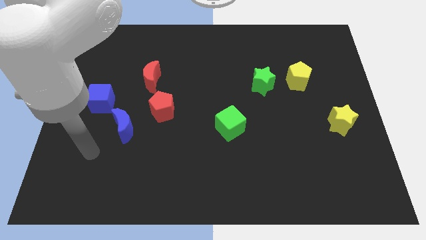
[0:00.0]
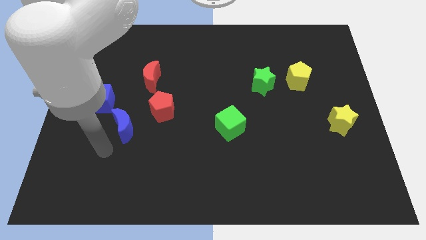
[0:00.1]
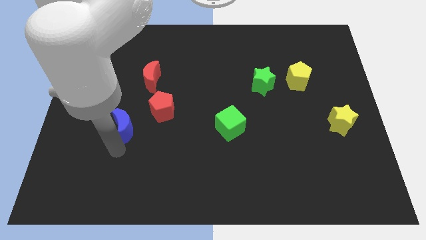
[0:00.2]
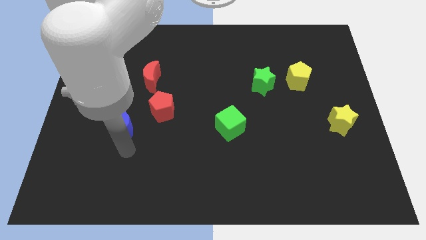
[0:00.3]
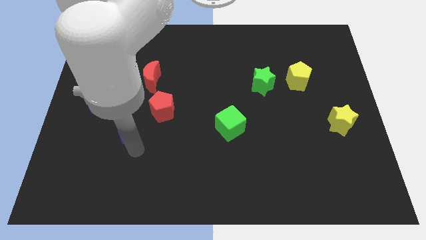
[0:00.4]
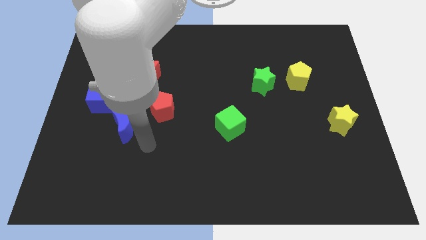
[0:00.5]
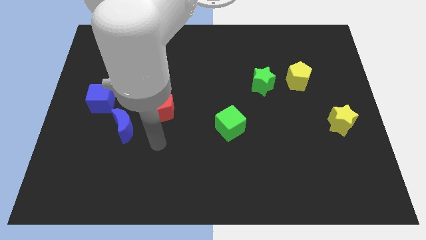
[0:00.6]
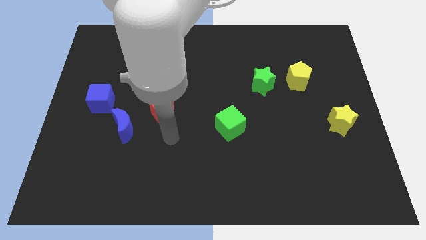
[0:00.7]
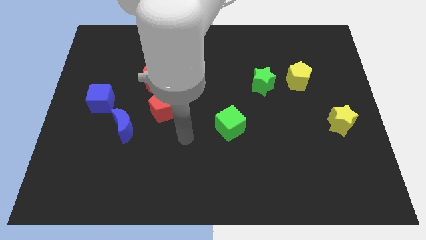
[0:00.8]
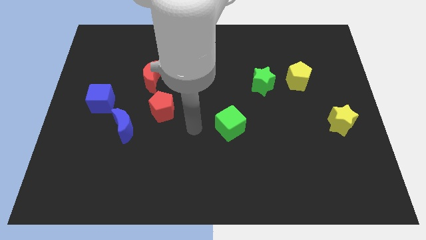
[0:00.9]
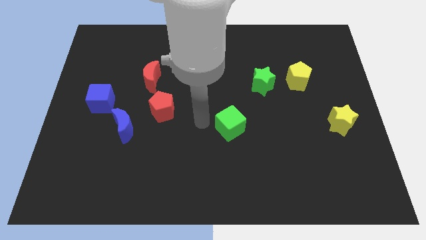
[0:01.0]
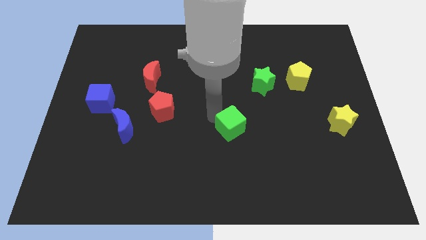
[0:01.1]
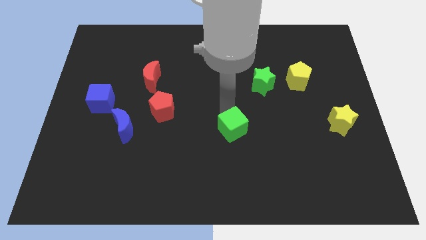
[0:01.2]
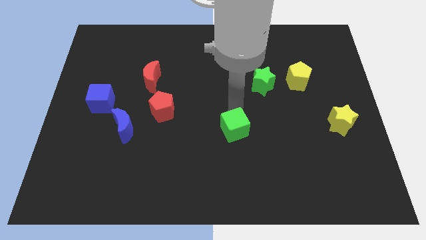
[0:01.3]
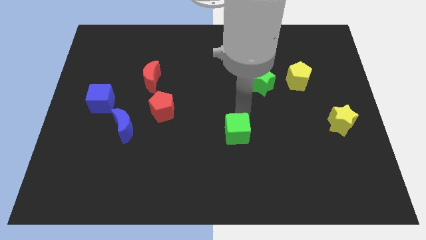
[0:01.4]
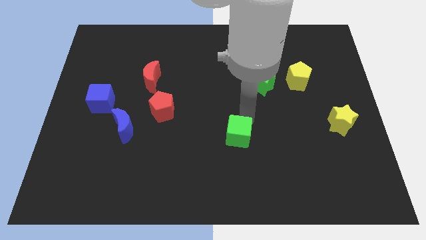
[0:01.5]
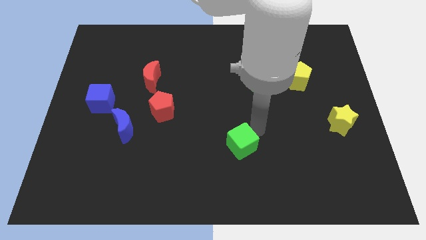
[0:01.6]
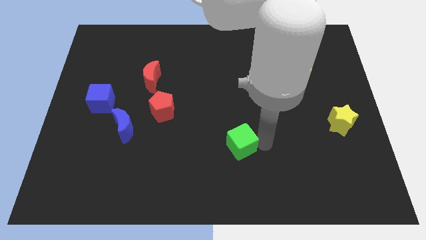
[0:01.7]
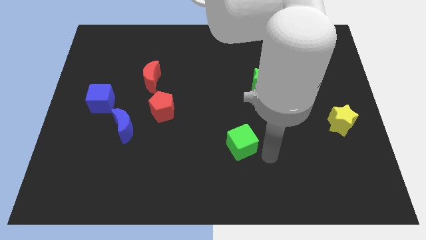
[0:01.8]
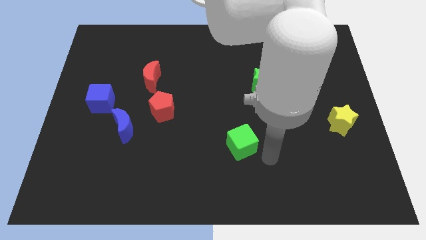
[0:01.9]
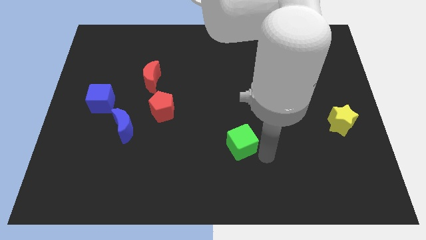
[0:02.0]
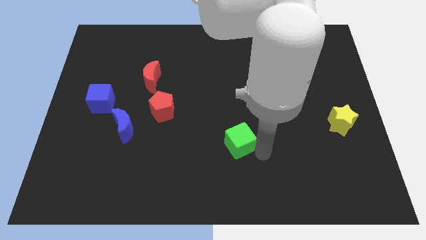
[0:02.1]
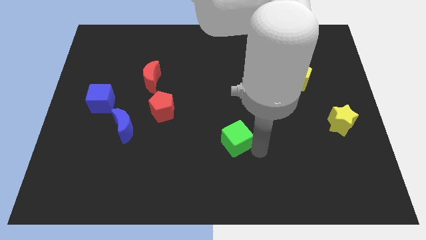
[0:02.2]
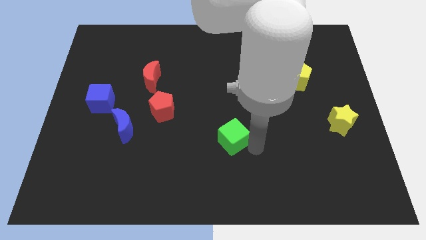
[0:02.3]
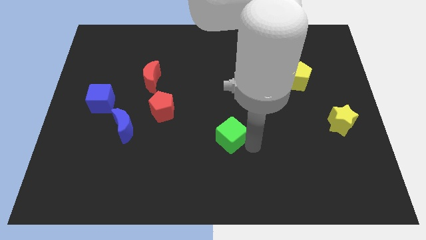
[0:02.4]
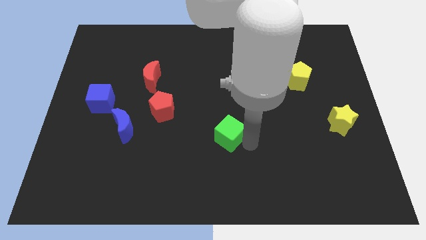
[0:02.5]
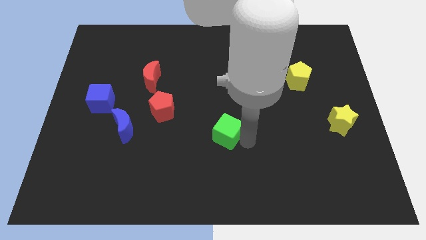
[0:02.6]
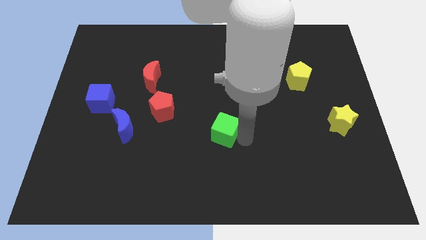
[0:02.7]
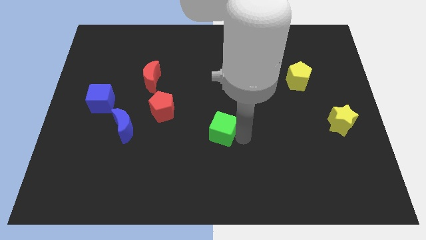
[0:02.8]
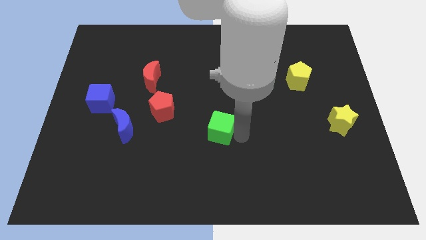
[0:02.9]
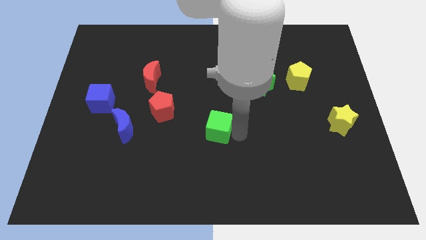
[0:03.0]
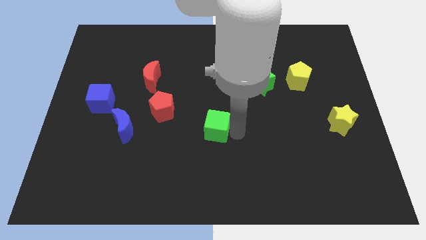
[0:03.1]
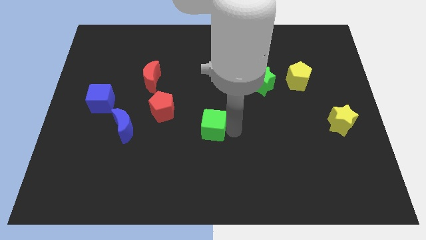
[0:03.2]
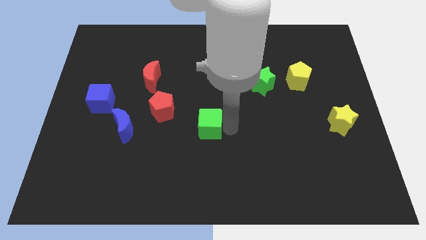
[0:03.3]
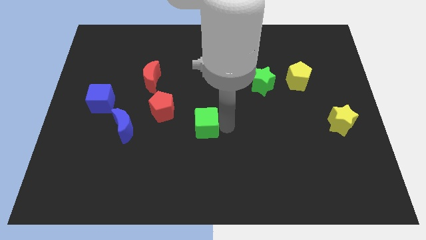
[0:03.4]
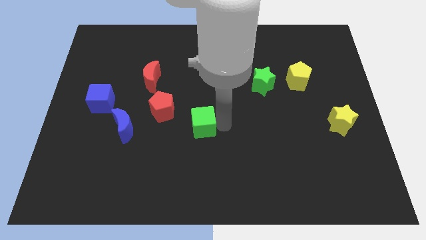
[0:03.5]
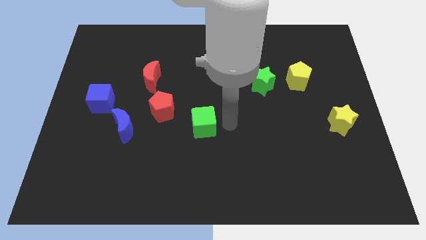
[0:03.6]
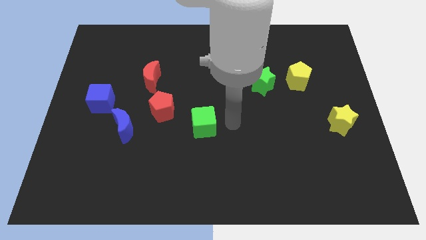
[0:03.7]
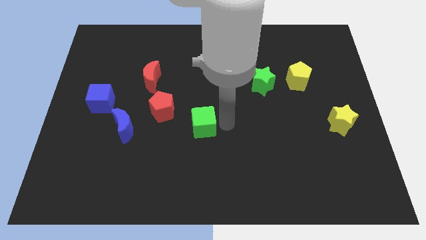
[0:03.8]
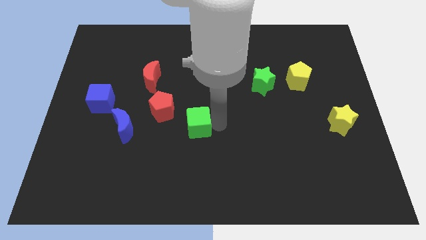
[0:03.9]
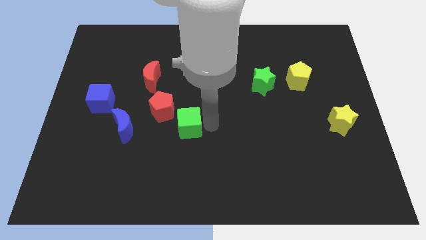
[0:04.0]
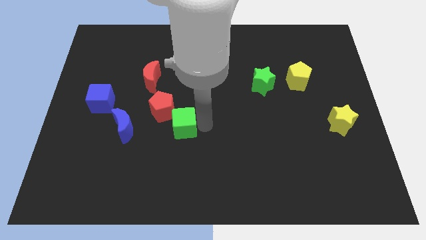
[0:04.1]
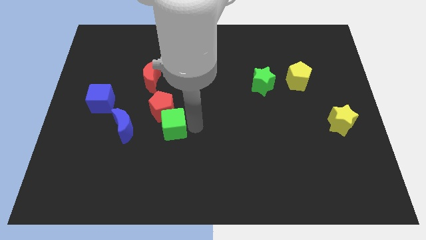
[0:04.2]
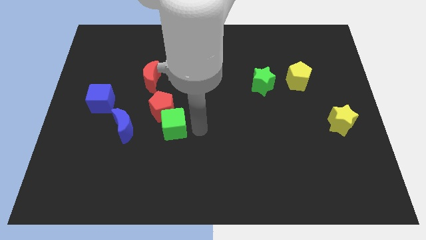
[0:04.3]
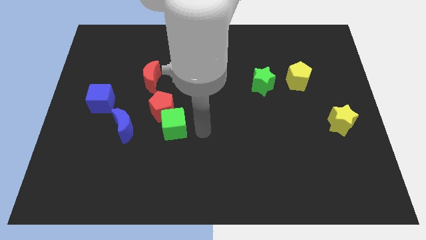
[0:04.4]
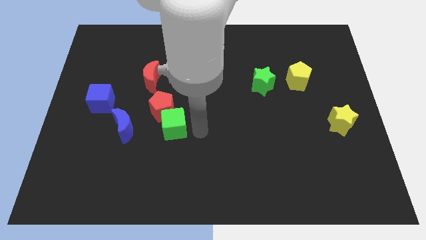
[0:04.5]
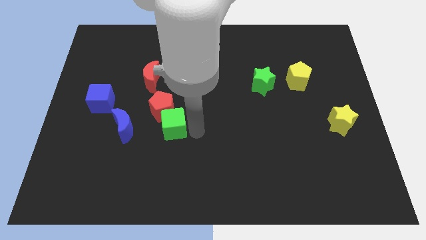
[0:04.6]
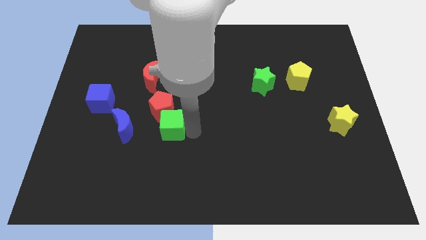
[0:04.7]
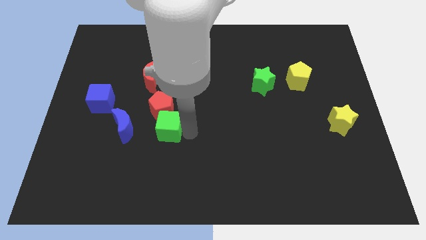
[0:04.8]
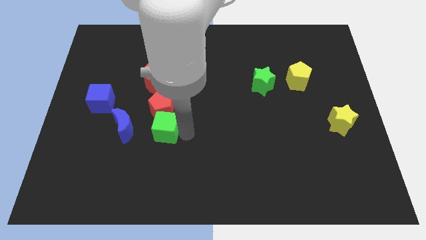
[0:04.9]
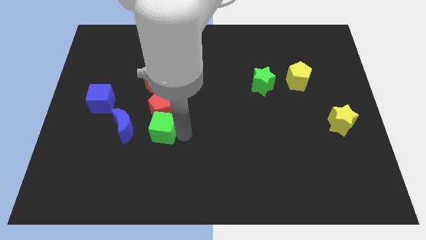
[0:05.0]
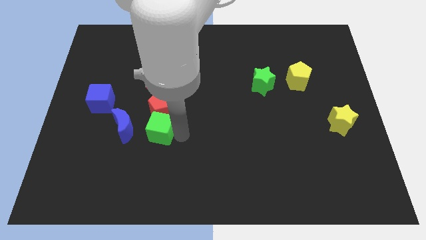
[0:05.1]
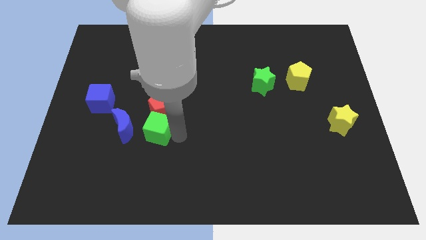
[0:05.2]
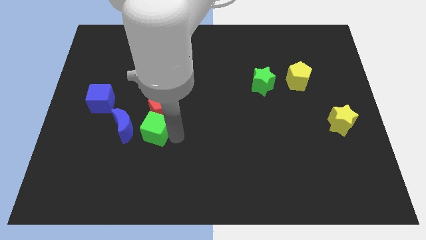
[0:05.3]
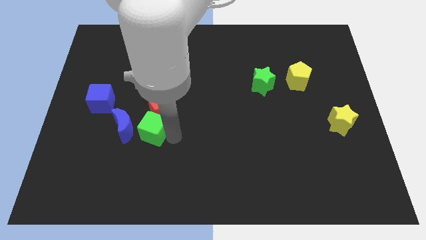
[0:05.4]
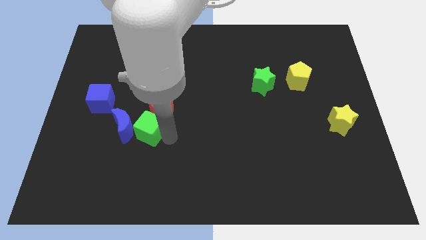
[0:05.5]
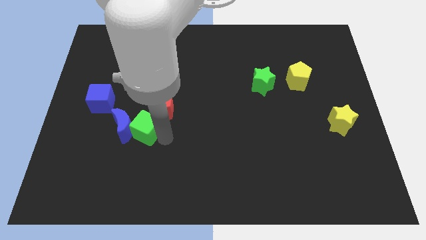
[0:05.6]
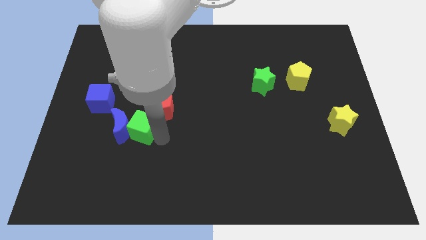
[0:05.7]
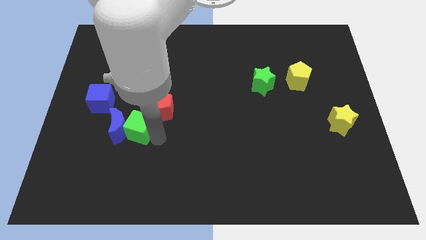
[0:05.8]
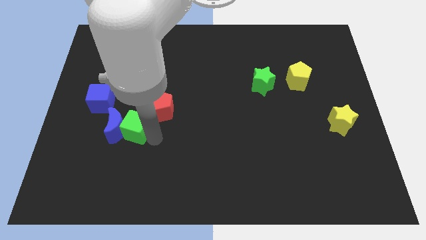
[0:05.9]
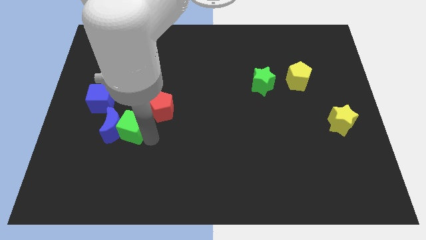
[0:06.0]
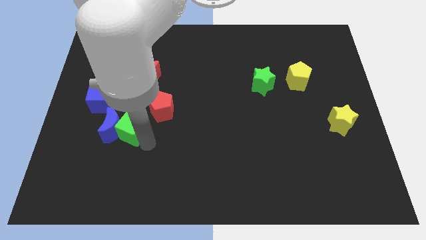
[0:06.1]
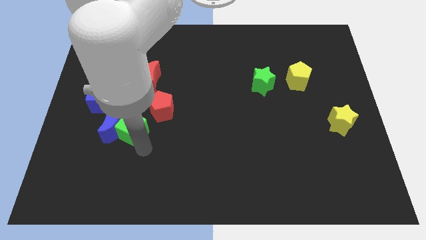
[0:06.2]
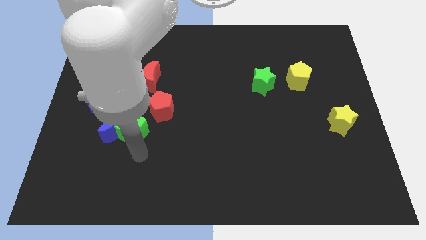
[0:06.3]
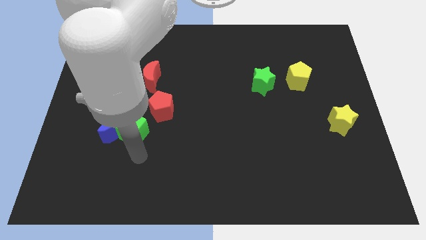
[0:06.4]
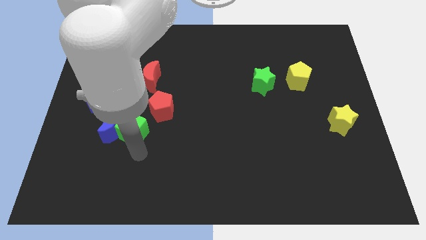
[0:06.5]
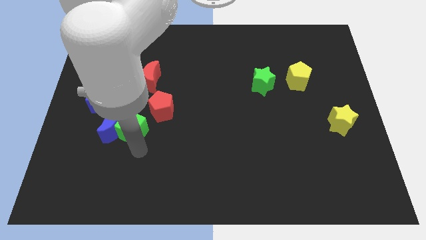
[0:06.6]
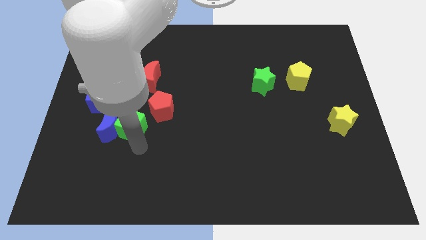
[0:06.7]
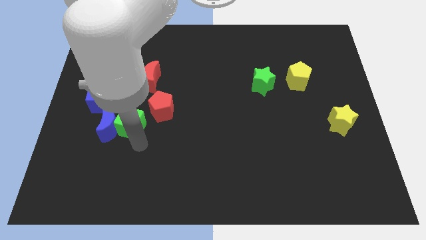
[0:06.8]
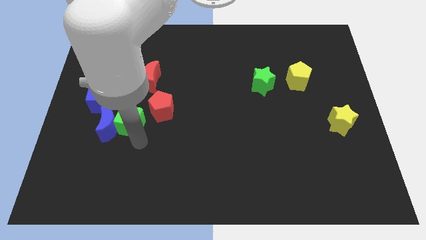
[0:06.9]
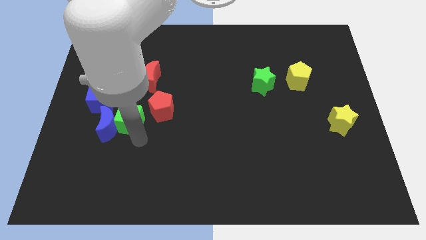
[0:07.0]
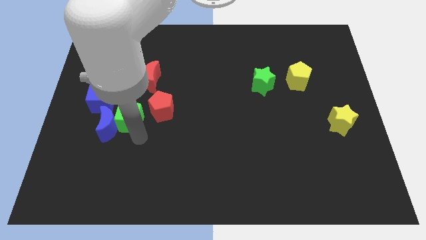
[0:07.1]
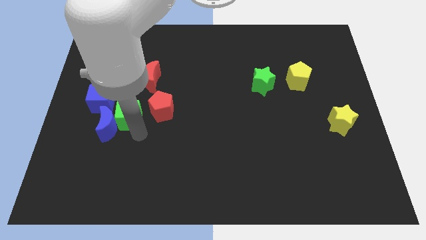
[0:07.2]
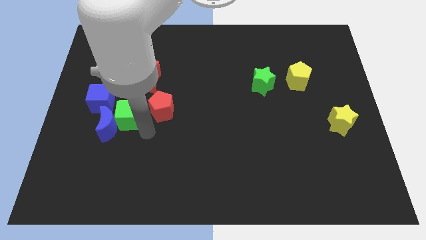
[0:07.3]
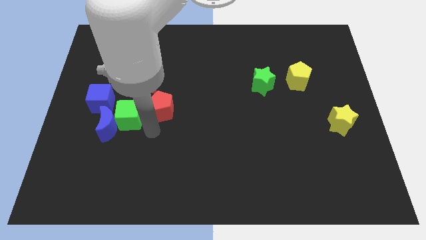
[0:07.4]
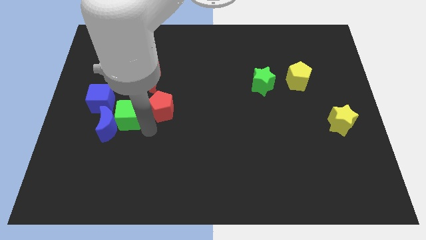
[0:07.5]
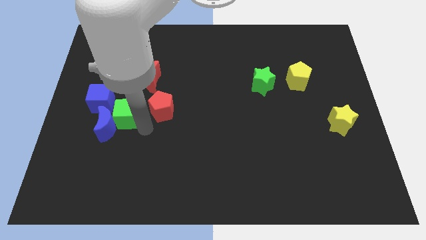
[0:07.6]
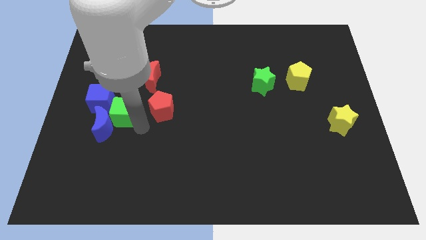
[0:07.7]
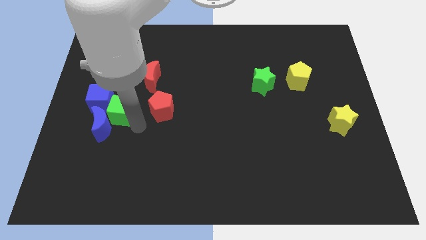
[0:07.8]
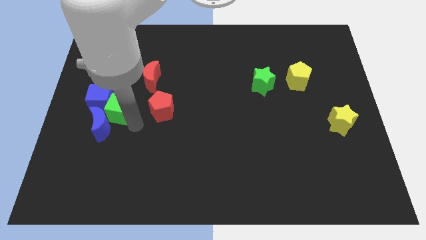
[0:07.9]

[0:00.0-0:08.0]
move the green cube to the blue cube
